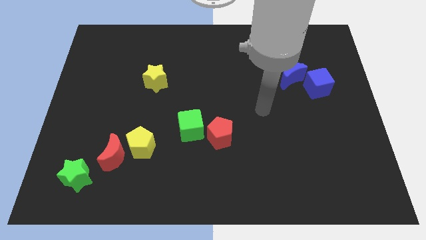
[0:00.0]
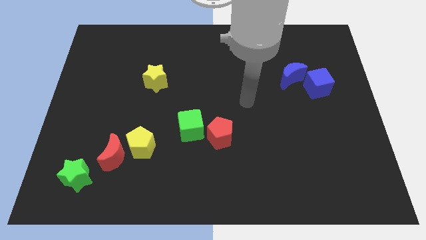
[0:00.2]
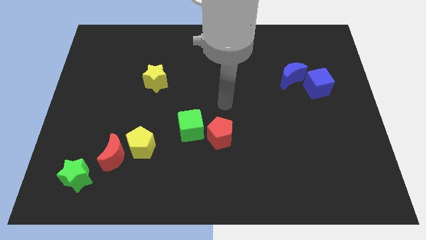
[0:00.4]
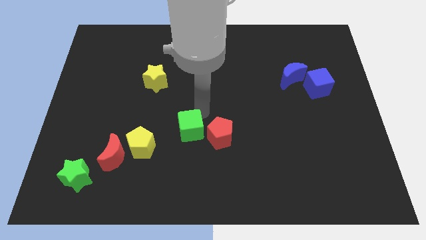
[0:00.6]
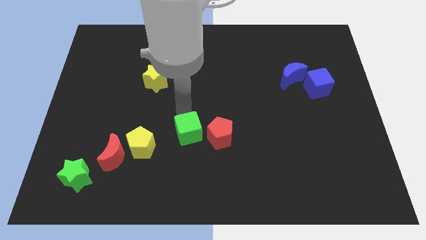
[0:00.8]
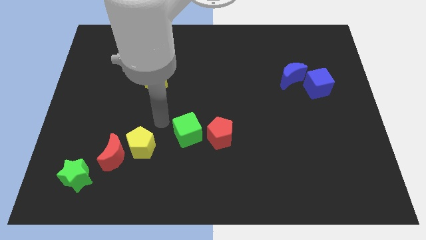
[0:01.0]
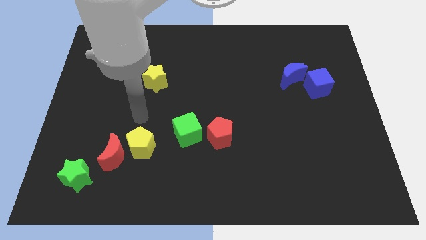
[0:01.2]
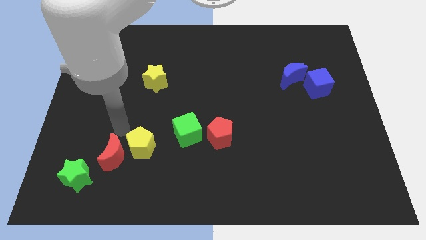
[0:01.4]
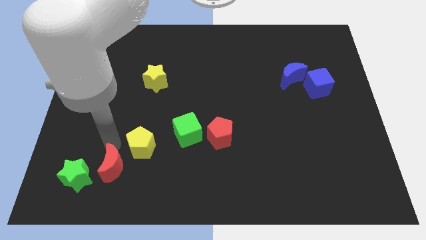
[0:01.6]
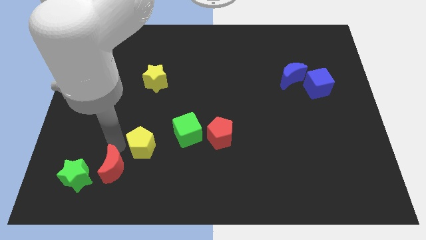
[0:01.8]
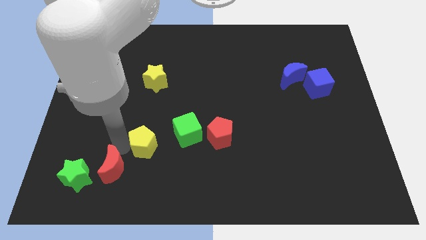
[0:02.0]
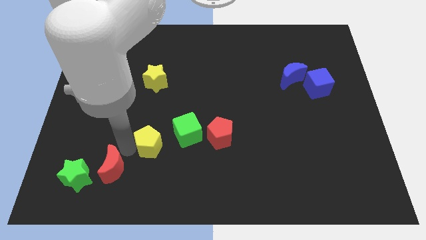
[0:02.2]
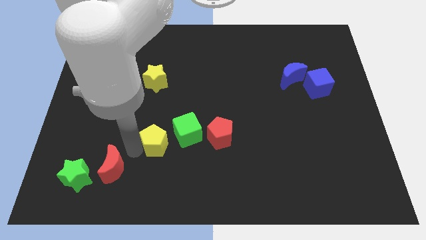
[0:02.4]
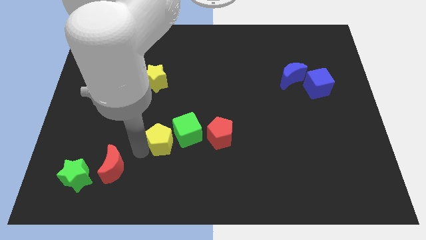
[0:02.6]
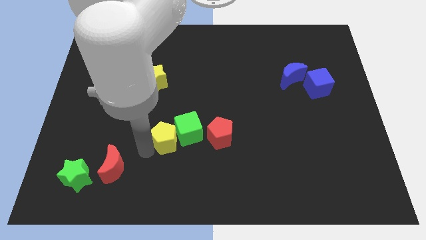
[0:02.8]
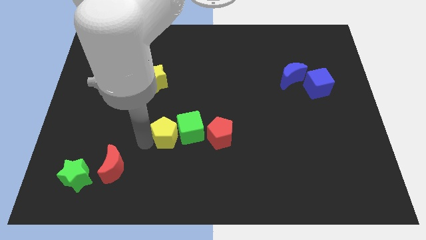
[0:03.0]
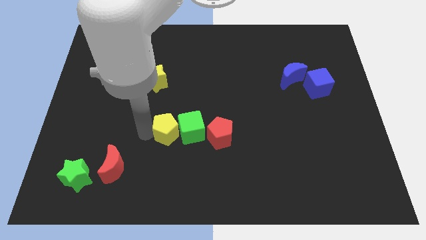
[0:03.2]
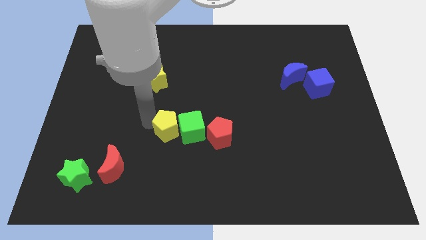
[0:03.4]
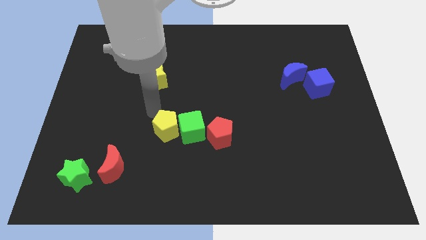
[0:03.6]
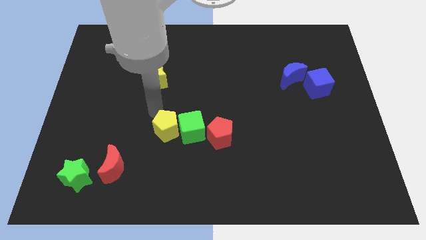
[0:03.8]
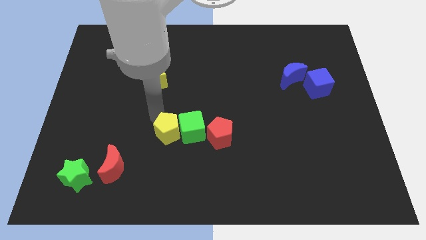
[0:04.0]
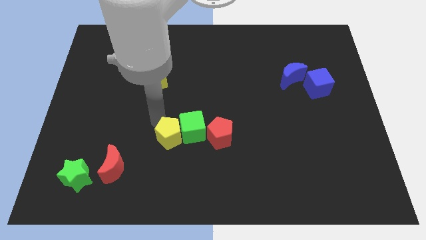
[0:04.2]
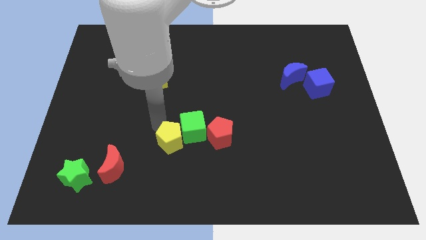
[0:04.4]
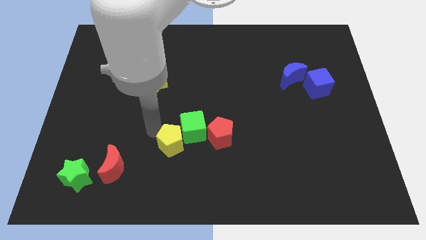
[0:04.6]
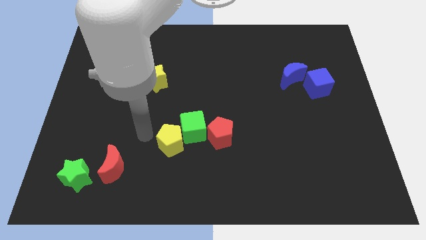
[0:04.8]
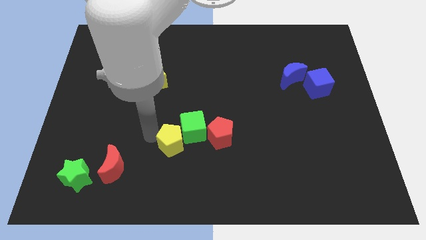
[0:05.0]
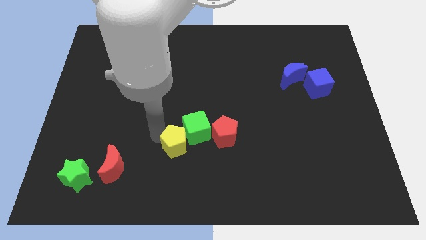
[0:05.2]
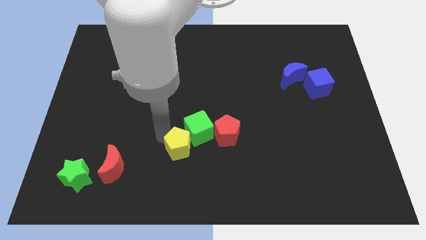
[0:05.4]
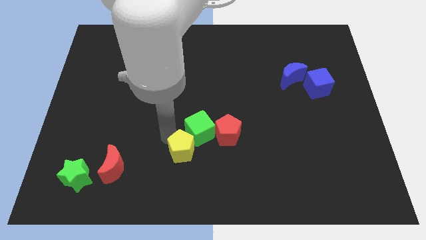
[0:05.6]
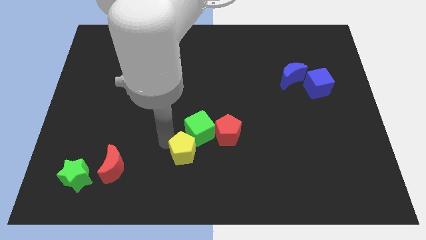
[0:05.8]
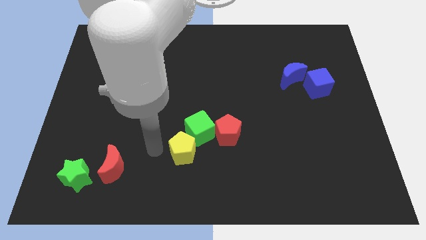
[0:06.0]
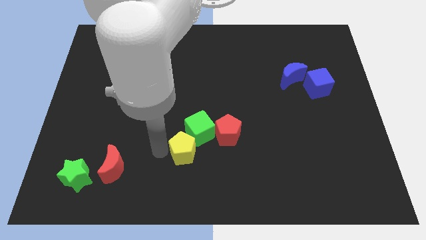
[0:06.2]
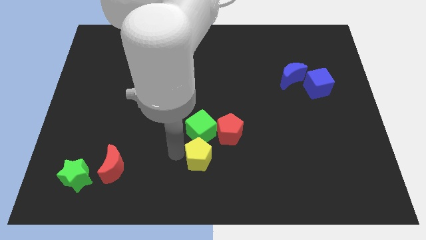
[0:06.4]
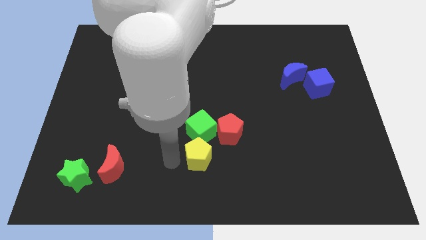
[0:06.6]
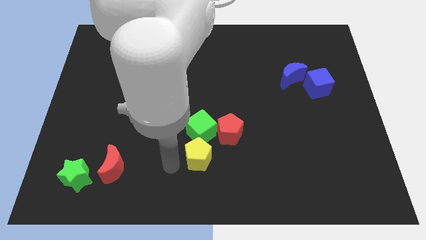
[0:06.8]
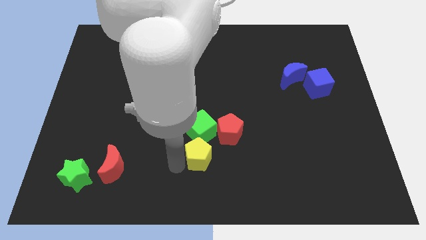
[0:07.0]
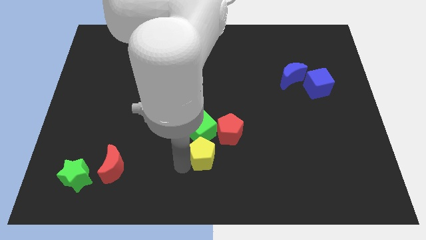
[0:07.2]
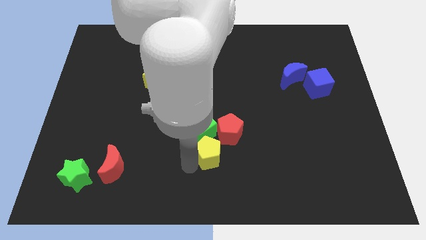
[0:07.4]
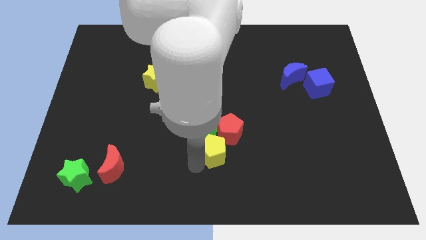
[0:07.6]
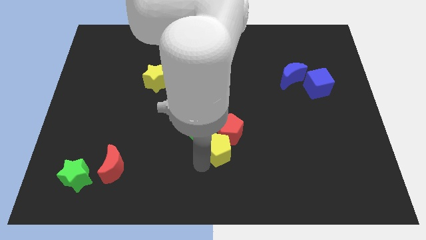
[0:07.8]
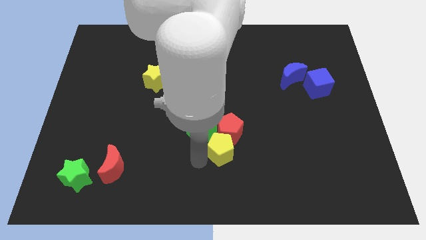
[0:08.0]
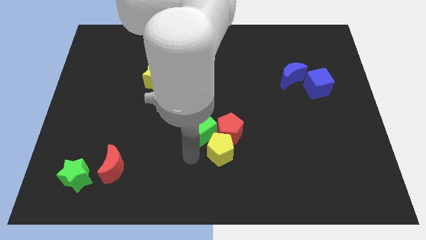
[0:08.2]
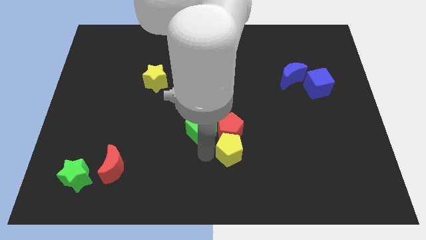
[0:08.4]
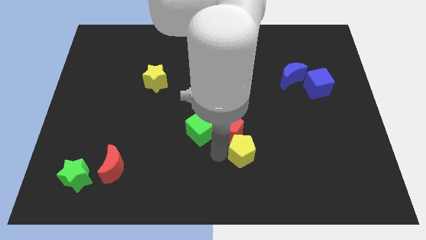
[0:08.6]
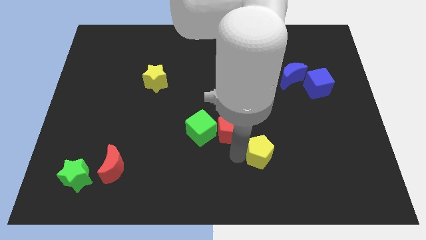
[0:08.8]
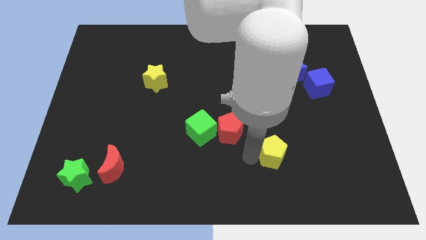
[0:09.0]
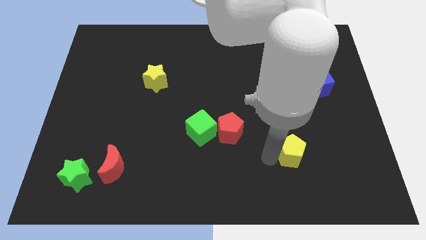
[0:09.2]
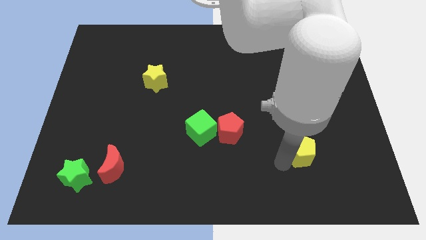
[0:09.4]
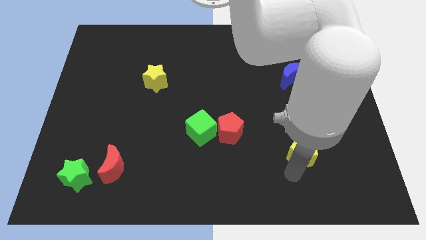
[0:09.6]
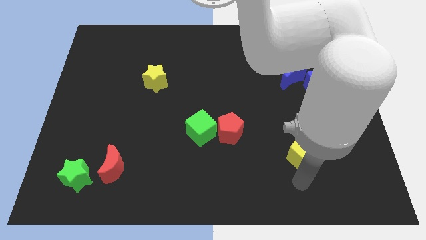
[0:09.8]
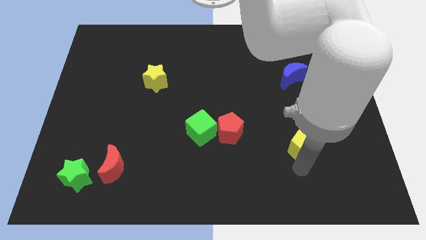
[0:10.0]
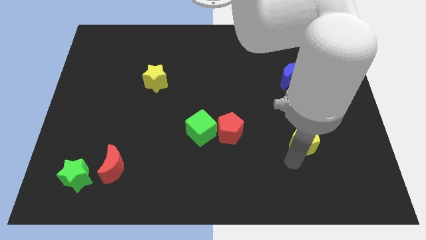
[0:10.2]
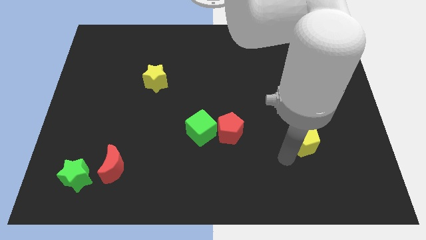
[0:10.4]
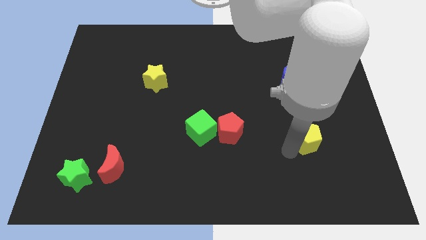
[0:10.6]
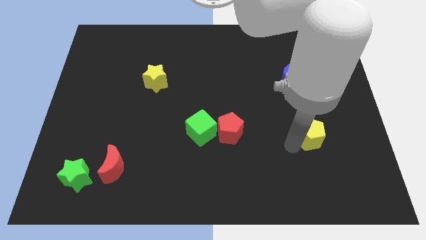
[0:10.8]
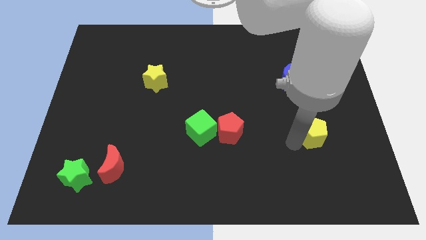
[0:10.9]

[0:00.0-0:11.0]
put the yellow pentagon below the blue cube
